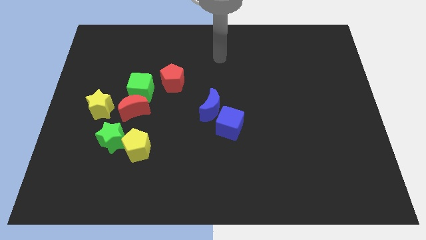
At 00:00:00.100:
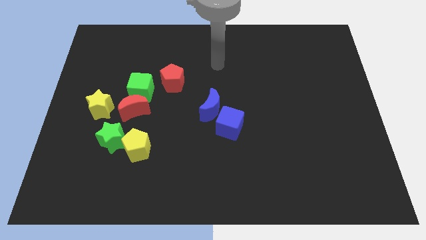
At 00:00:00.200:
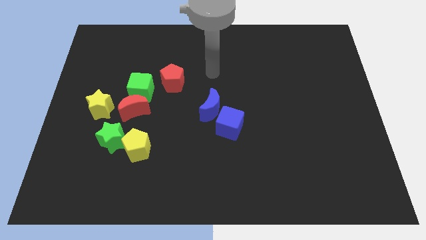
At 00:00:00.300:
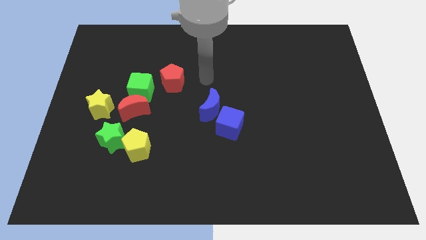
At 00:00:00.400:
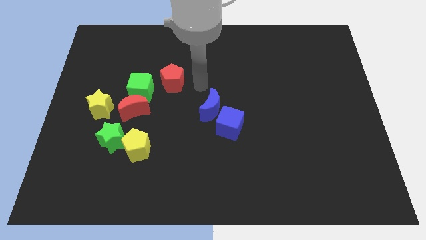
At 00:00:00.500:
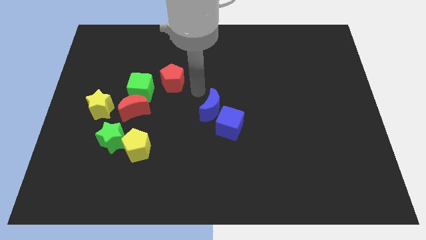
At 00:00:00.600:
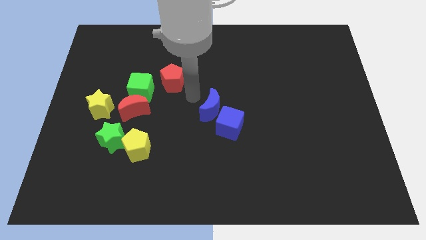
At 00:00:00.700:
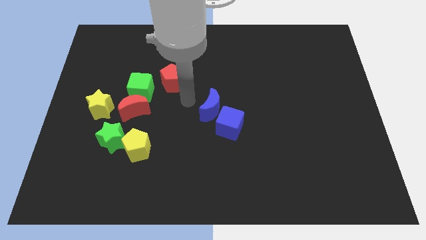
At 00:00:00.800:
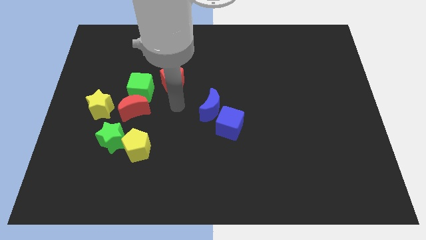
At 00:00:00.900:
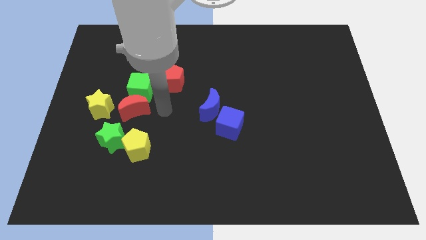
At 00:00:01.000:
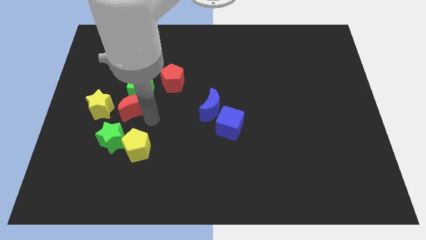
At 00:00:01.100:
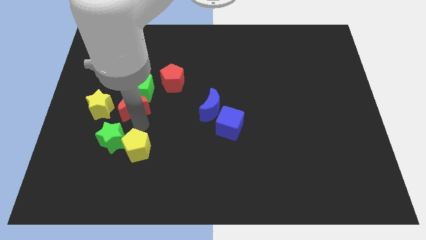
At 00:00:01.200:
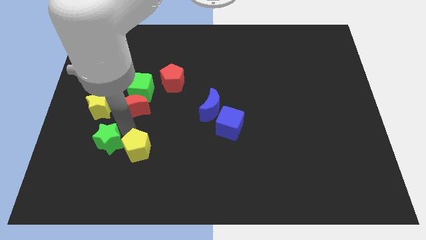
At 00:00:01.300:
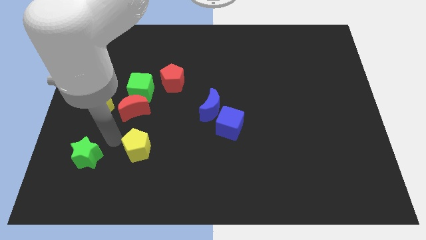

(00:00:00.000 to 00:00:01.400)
move the yellow pentagon away from the green star

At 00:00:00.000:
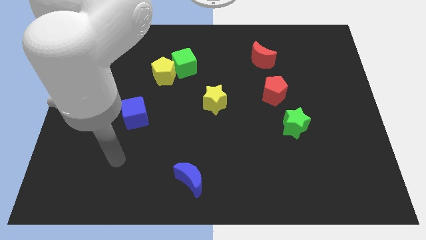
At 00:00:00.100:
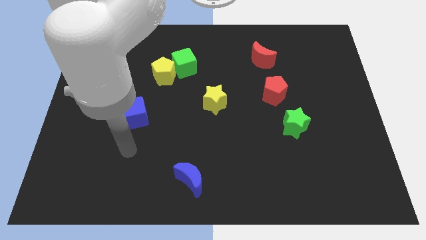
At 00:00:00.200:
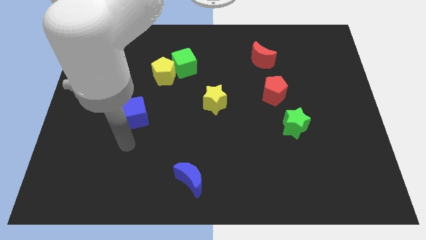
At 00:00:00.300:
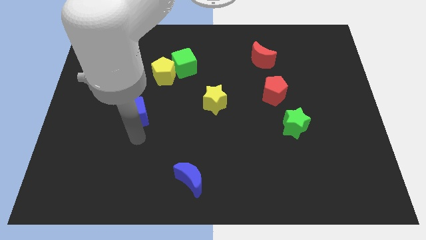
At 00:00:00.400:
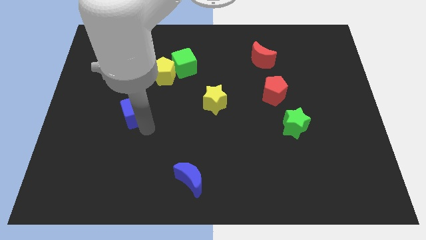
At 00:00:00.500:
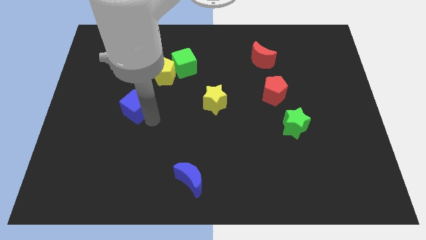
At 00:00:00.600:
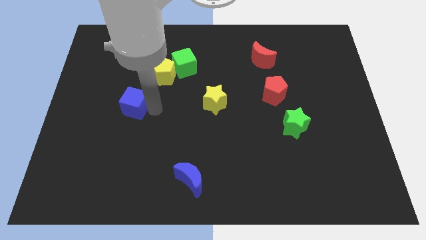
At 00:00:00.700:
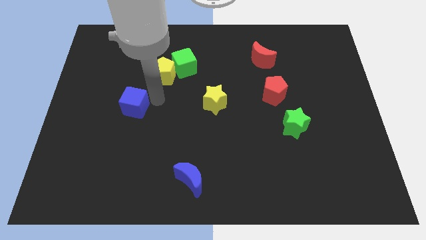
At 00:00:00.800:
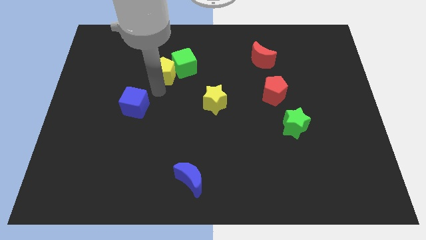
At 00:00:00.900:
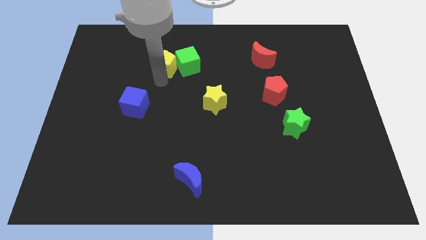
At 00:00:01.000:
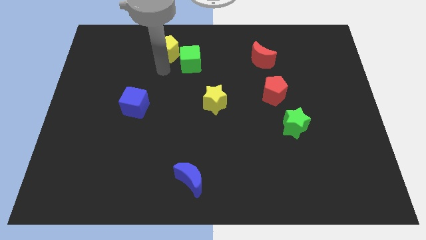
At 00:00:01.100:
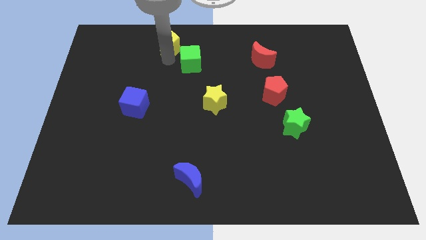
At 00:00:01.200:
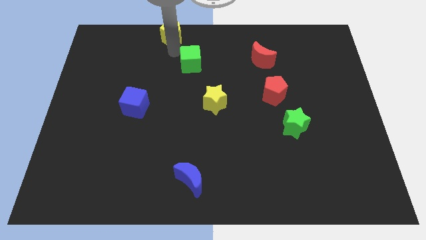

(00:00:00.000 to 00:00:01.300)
move the green cube away from the yellow pentagon

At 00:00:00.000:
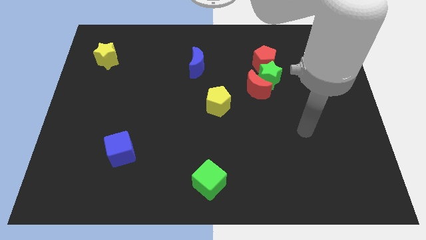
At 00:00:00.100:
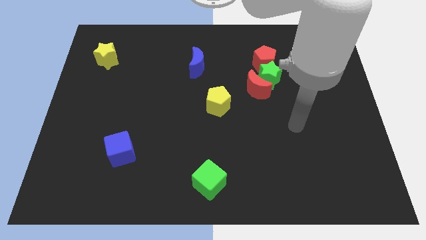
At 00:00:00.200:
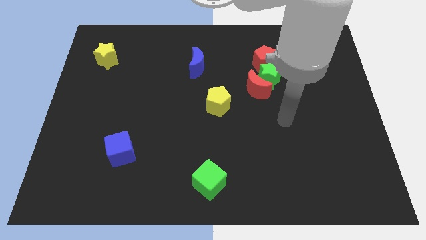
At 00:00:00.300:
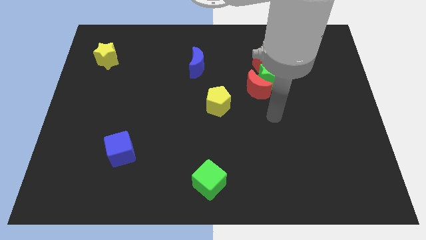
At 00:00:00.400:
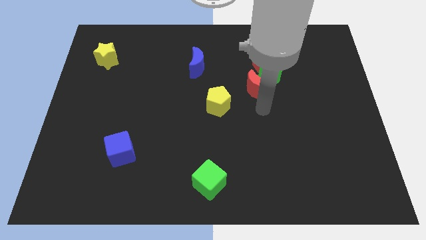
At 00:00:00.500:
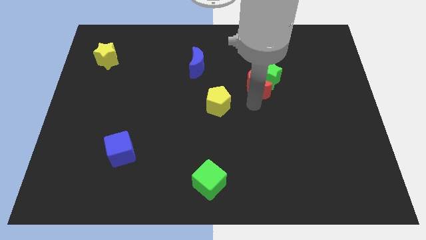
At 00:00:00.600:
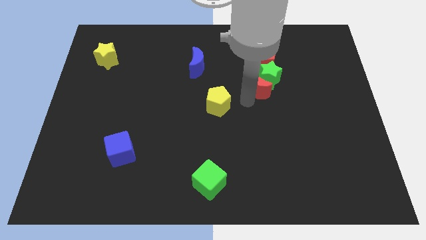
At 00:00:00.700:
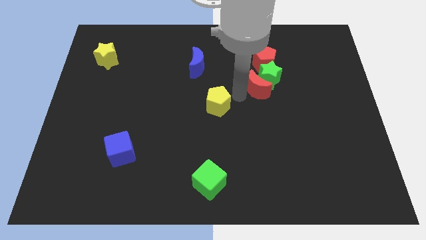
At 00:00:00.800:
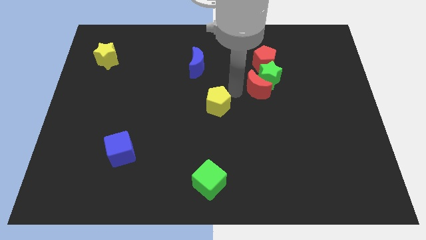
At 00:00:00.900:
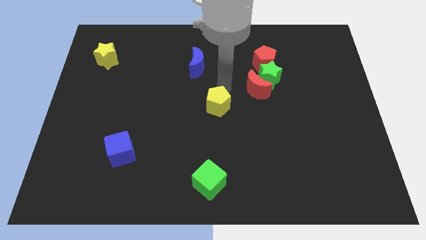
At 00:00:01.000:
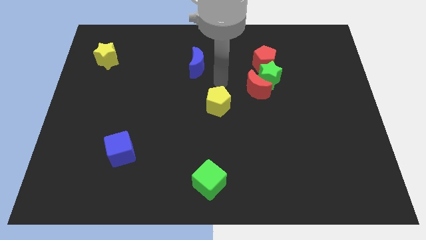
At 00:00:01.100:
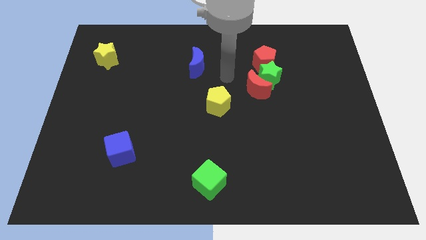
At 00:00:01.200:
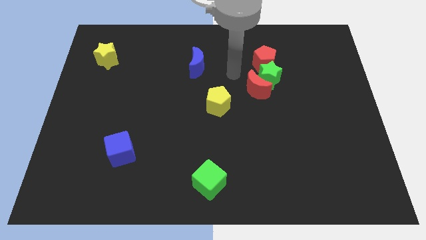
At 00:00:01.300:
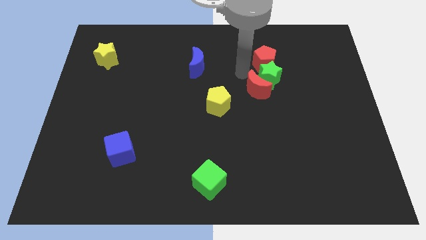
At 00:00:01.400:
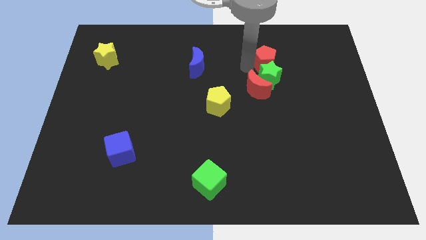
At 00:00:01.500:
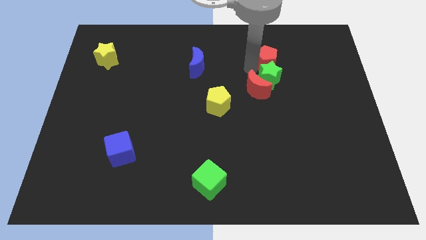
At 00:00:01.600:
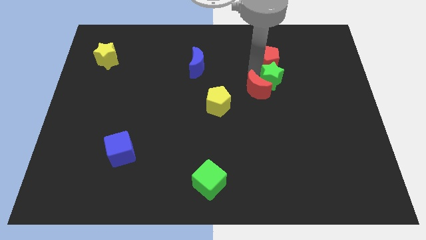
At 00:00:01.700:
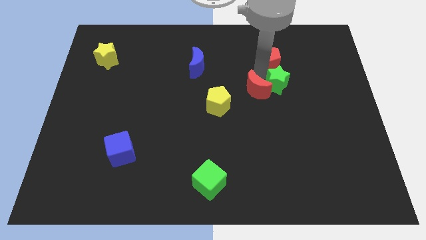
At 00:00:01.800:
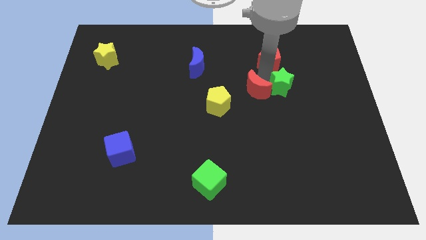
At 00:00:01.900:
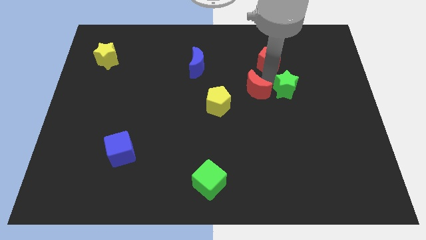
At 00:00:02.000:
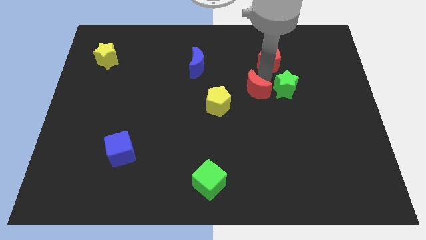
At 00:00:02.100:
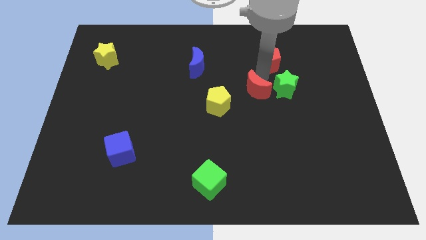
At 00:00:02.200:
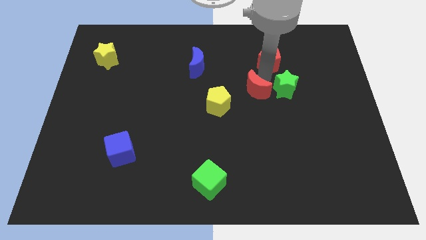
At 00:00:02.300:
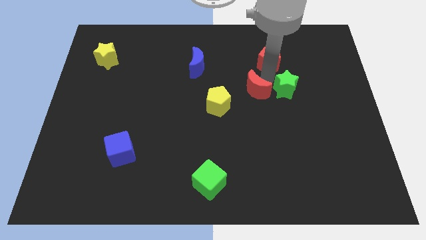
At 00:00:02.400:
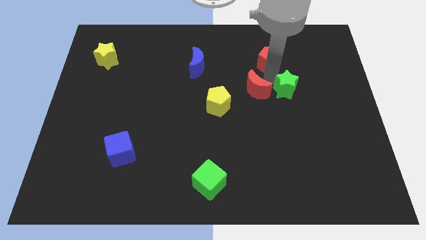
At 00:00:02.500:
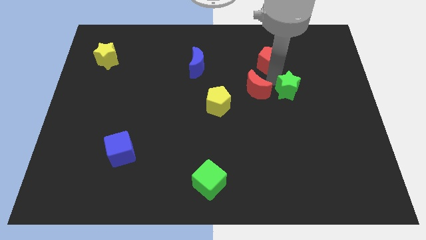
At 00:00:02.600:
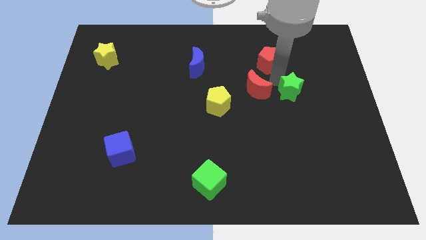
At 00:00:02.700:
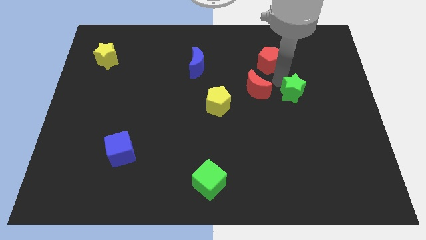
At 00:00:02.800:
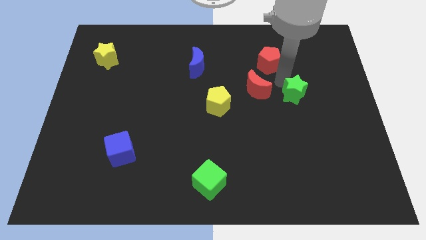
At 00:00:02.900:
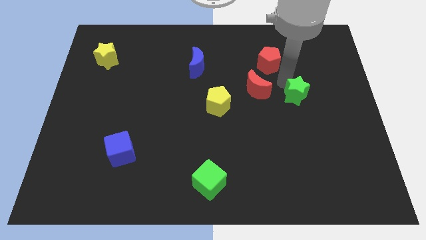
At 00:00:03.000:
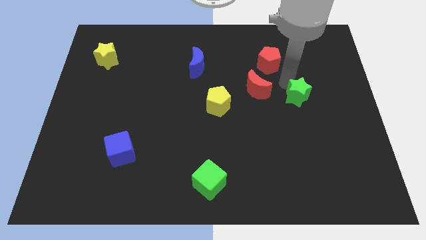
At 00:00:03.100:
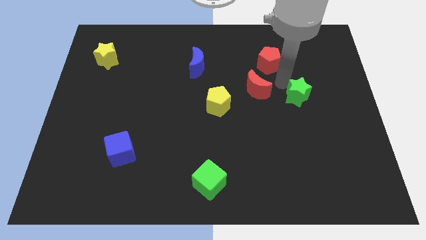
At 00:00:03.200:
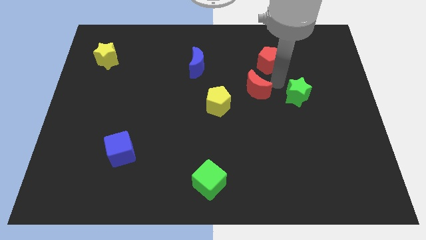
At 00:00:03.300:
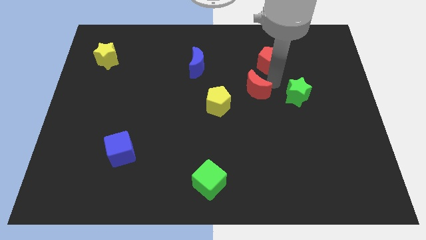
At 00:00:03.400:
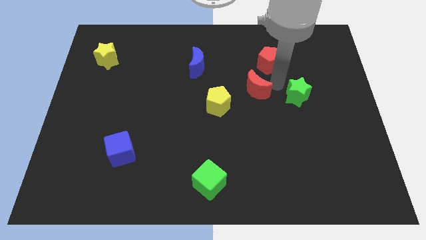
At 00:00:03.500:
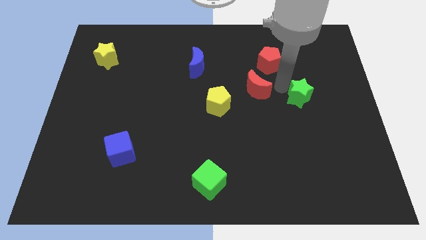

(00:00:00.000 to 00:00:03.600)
move the green star away from the red moon and red pentagon

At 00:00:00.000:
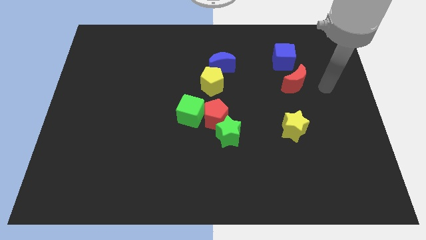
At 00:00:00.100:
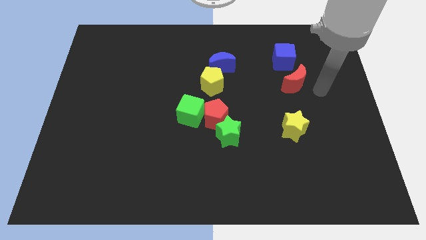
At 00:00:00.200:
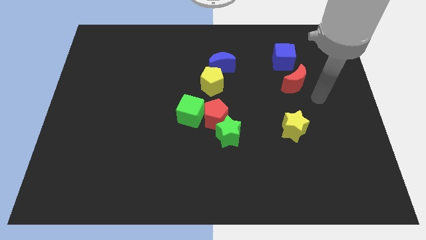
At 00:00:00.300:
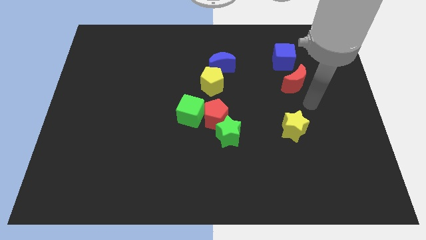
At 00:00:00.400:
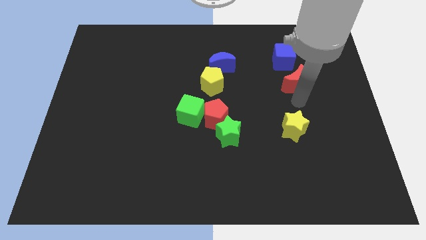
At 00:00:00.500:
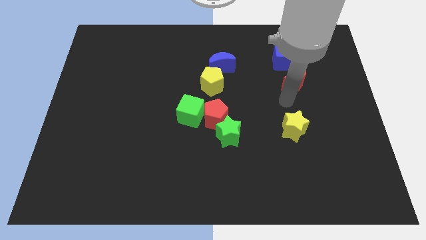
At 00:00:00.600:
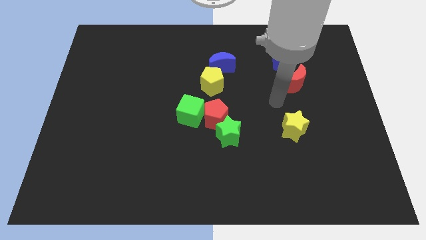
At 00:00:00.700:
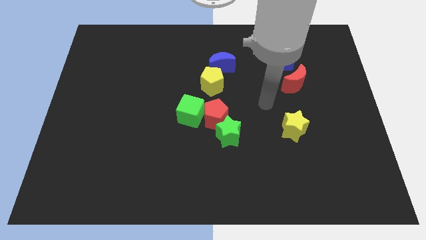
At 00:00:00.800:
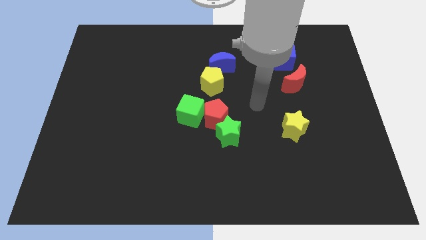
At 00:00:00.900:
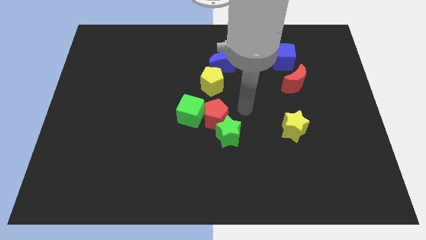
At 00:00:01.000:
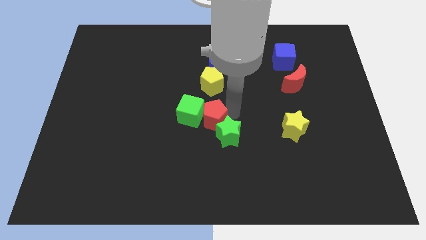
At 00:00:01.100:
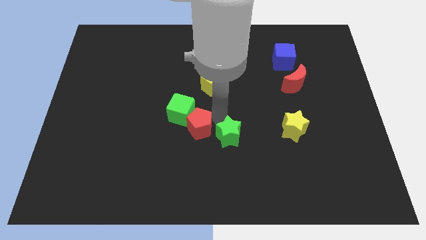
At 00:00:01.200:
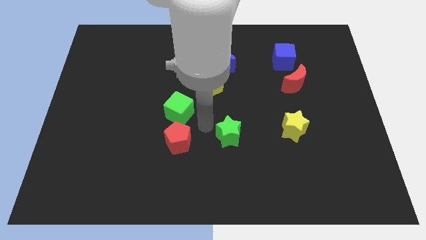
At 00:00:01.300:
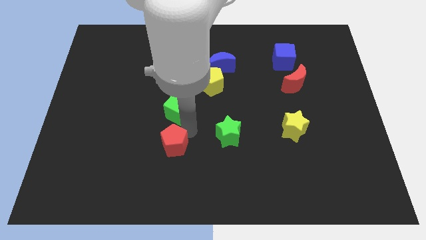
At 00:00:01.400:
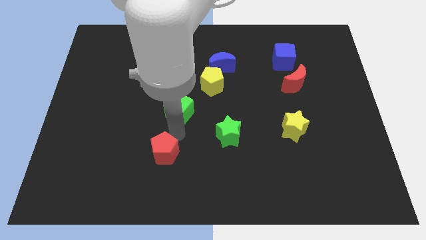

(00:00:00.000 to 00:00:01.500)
pull the green cube apart from the red pentagon

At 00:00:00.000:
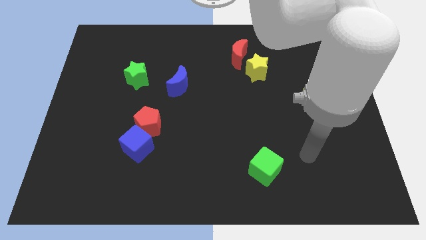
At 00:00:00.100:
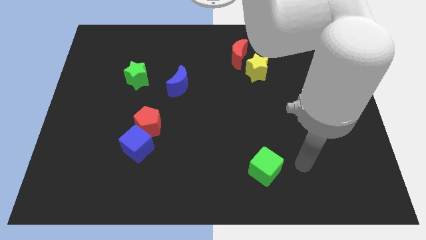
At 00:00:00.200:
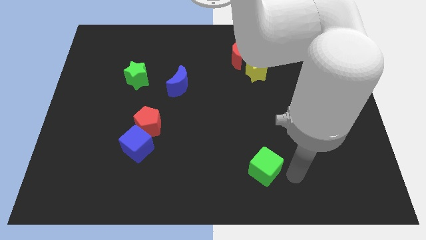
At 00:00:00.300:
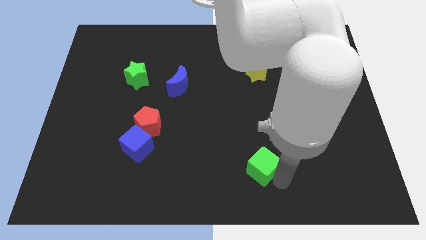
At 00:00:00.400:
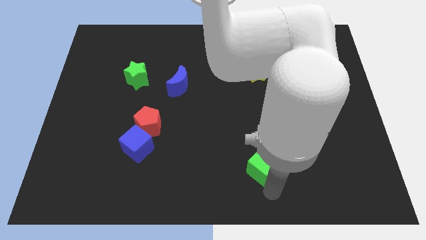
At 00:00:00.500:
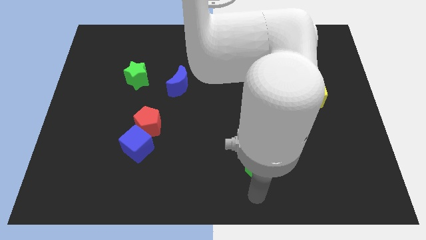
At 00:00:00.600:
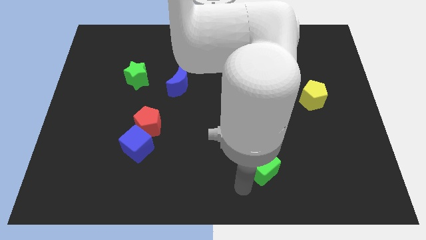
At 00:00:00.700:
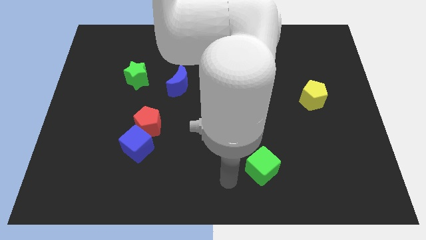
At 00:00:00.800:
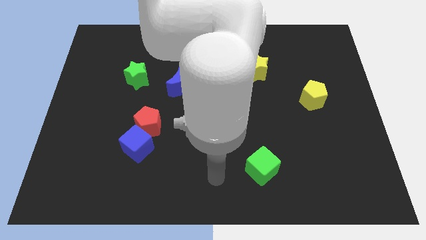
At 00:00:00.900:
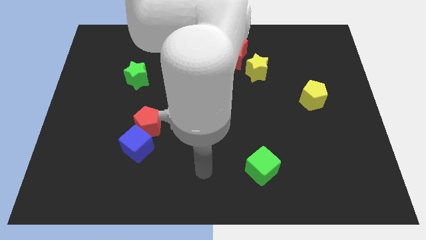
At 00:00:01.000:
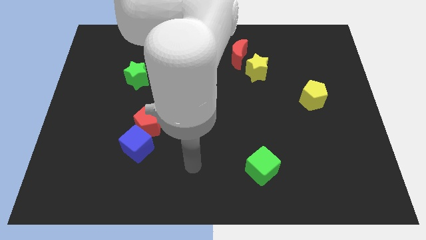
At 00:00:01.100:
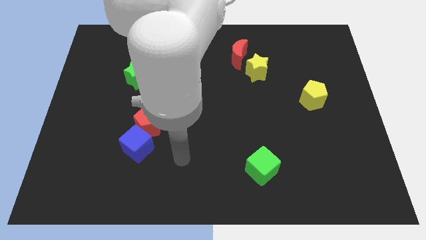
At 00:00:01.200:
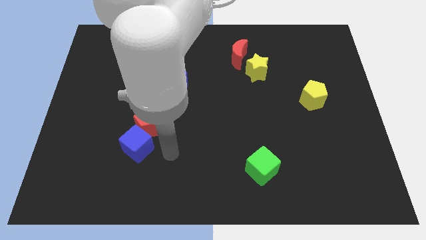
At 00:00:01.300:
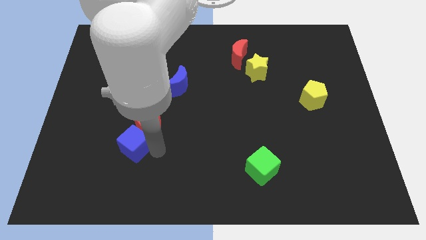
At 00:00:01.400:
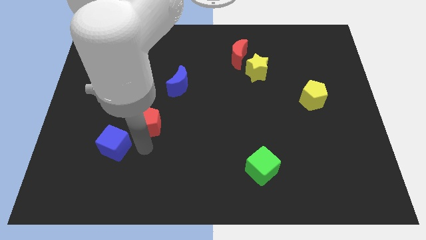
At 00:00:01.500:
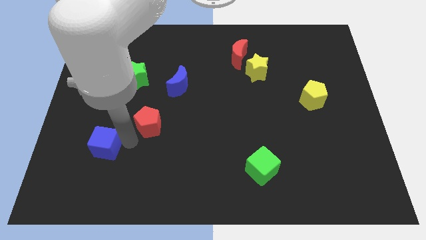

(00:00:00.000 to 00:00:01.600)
separate the red pentagon from the blue cube
